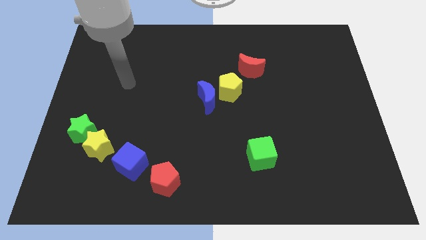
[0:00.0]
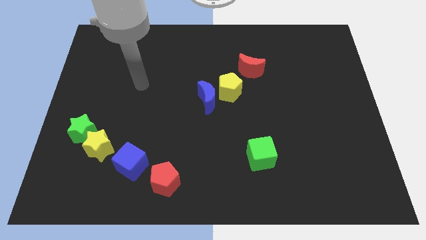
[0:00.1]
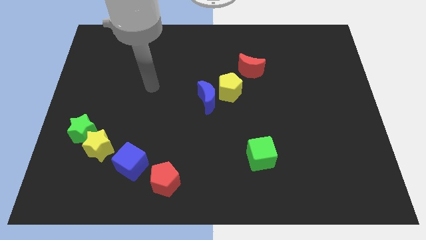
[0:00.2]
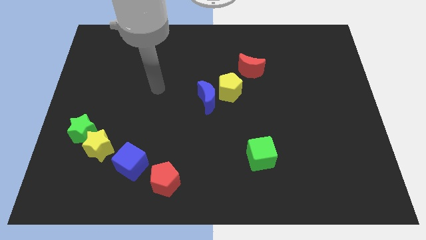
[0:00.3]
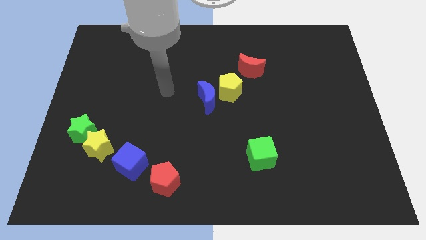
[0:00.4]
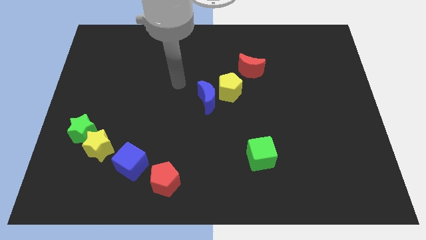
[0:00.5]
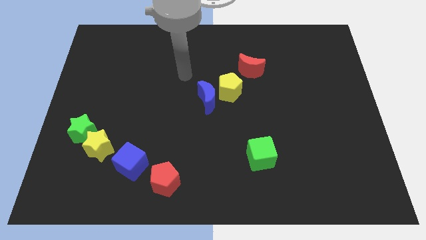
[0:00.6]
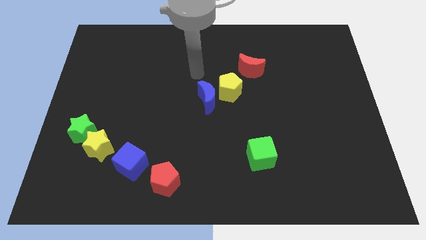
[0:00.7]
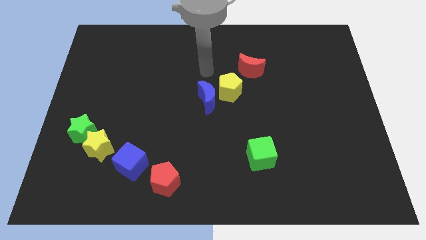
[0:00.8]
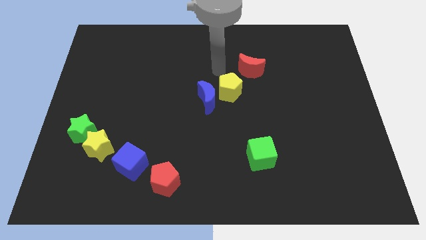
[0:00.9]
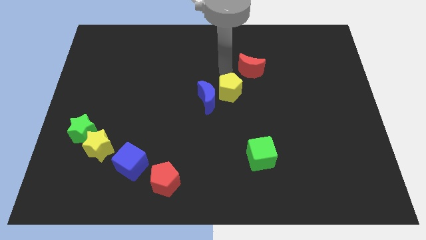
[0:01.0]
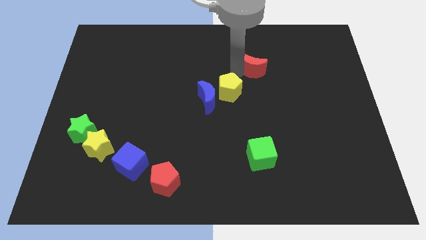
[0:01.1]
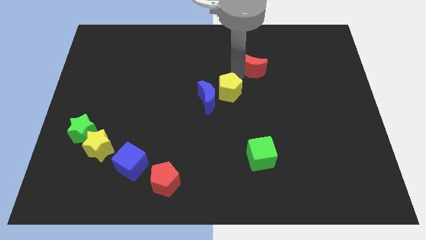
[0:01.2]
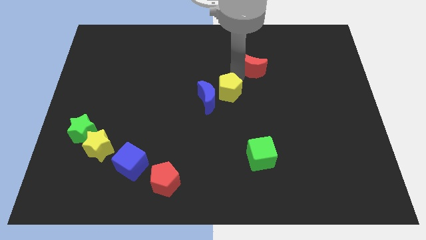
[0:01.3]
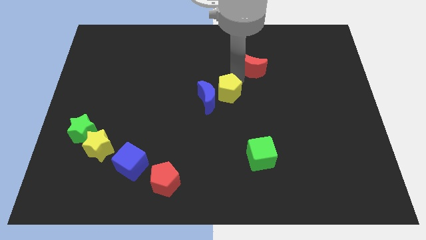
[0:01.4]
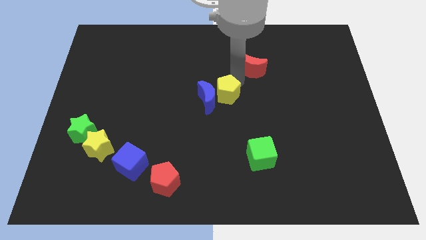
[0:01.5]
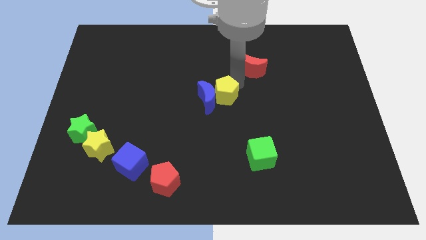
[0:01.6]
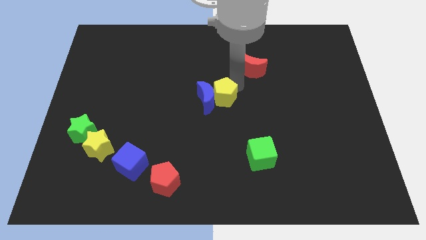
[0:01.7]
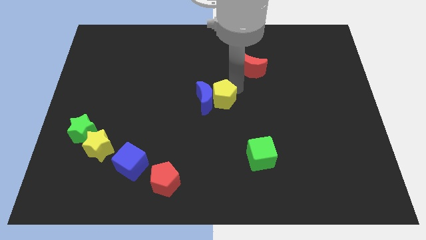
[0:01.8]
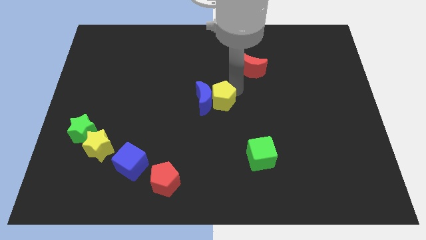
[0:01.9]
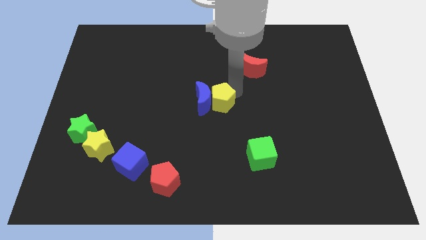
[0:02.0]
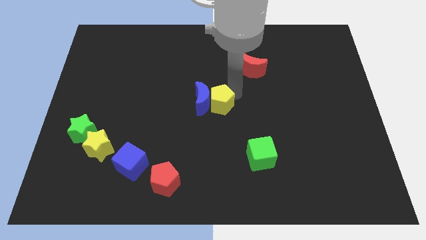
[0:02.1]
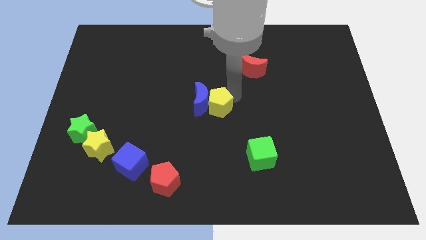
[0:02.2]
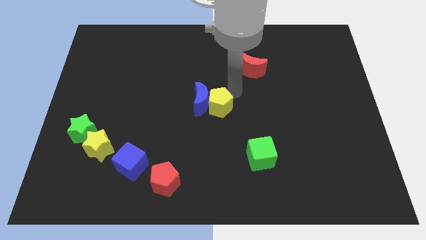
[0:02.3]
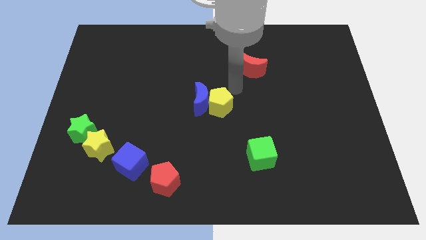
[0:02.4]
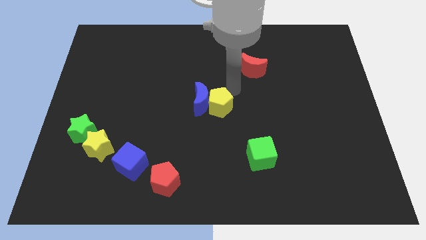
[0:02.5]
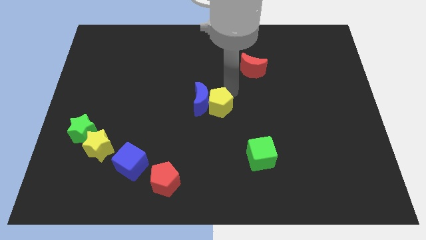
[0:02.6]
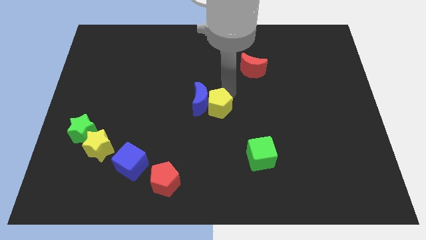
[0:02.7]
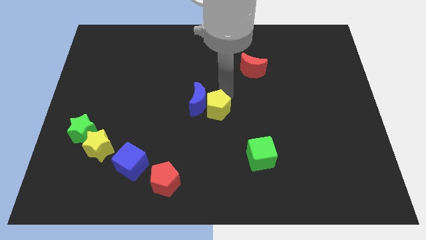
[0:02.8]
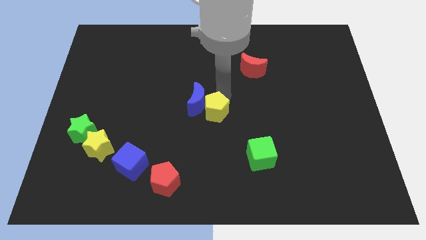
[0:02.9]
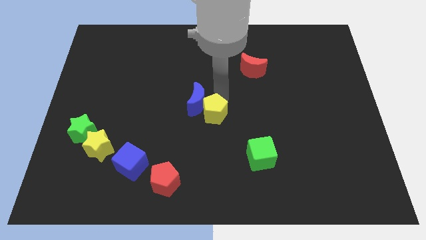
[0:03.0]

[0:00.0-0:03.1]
move the yellow pentagon downwards and left diagonally a little bit

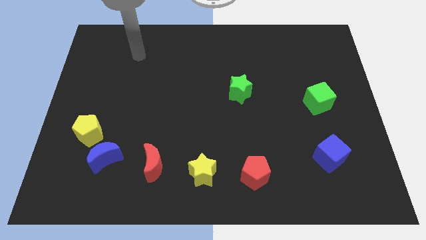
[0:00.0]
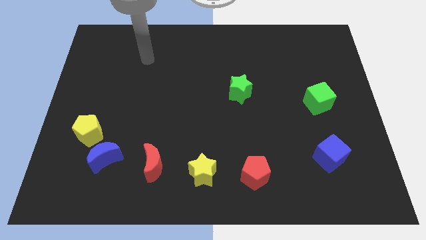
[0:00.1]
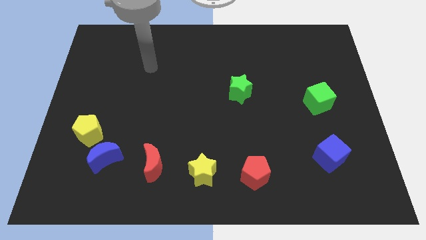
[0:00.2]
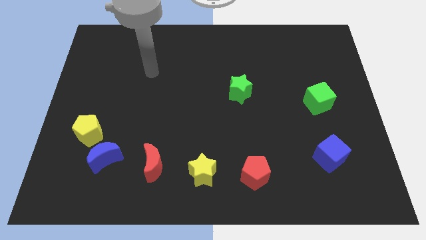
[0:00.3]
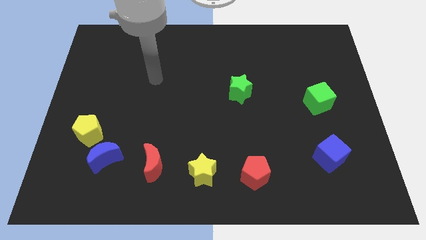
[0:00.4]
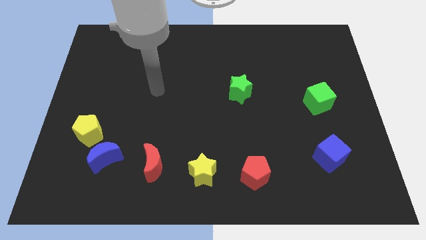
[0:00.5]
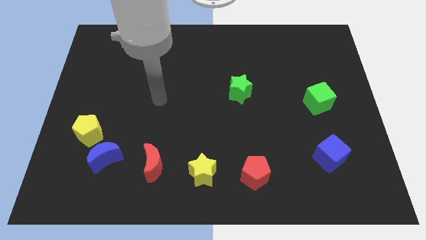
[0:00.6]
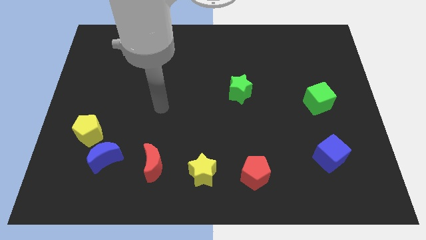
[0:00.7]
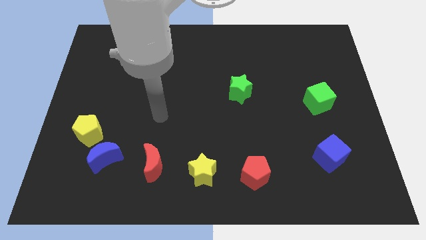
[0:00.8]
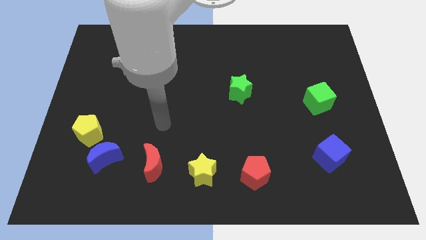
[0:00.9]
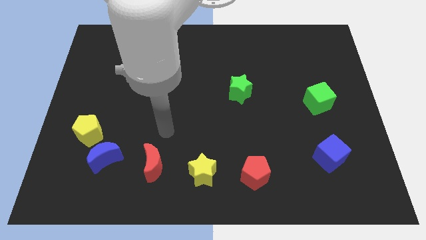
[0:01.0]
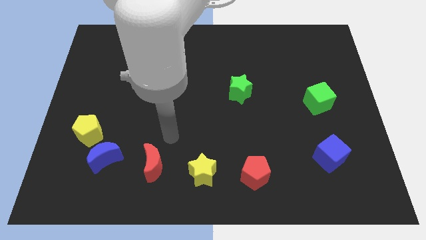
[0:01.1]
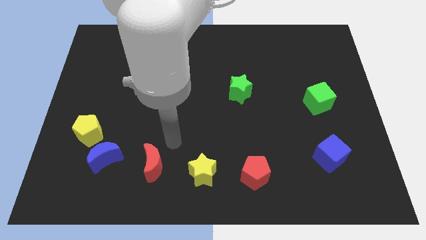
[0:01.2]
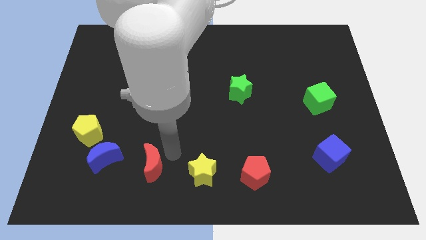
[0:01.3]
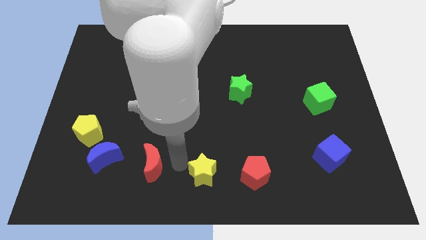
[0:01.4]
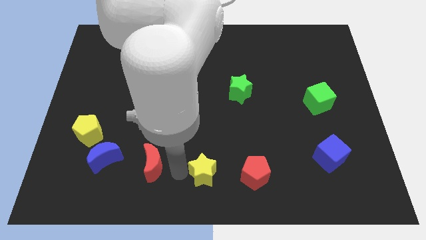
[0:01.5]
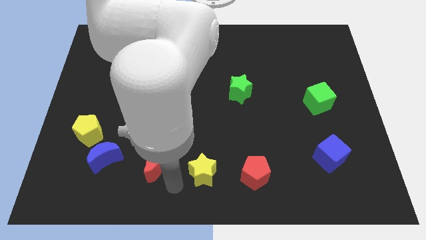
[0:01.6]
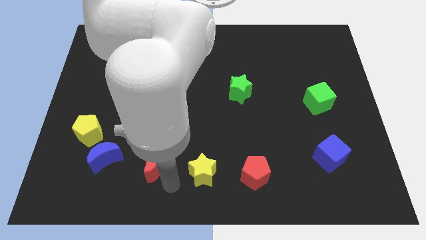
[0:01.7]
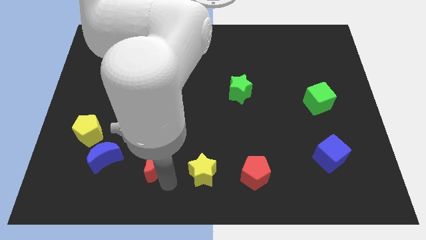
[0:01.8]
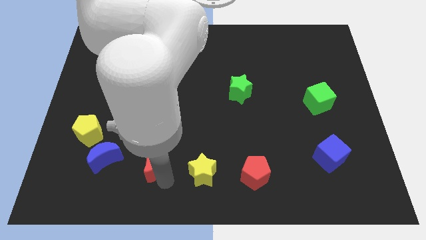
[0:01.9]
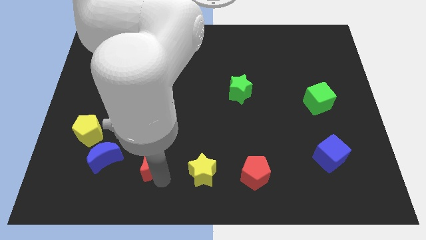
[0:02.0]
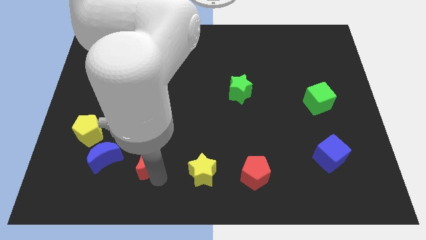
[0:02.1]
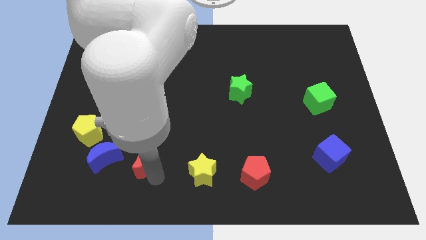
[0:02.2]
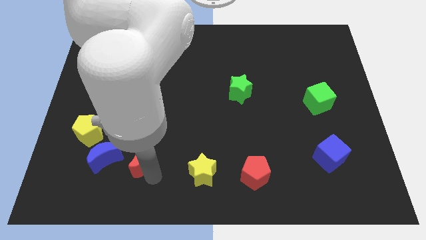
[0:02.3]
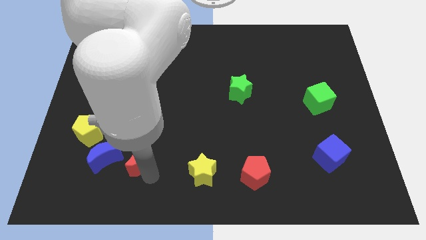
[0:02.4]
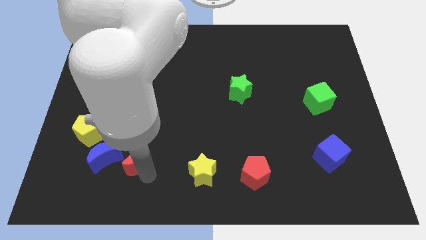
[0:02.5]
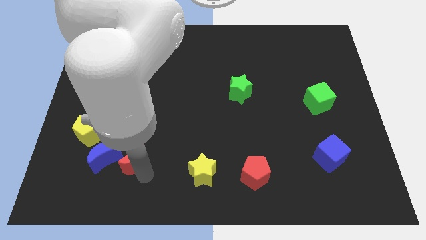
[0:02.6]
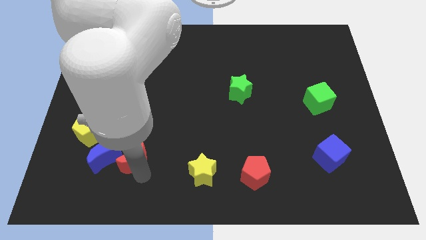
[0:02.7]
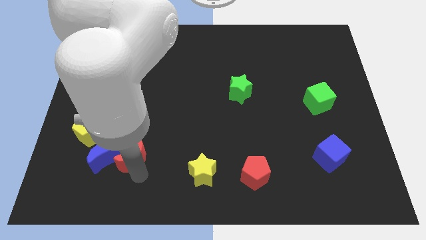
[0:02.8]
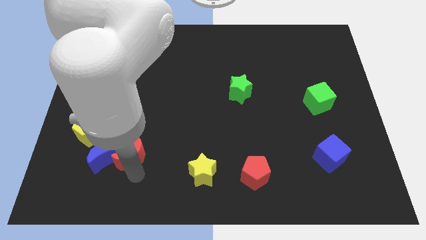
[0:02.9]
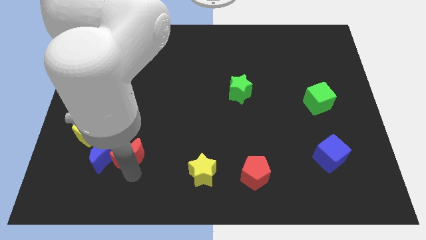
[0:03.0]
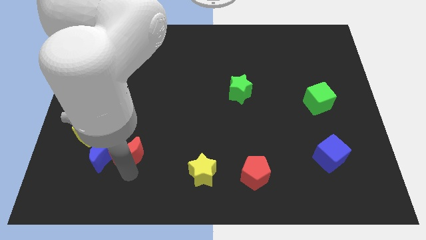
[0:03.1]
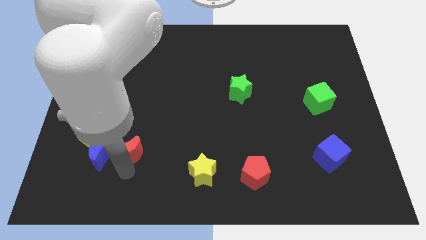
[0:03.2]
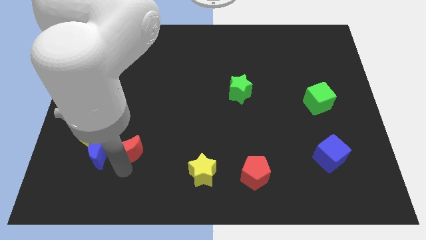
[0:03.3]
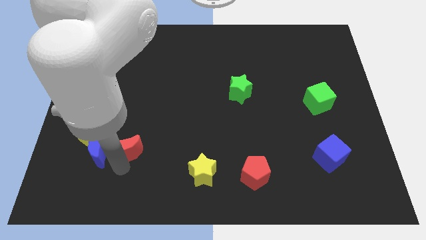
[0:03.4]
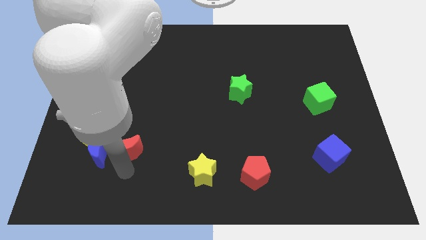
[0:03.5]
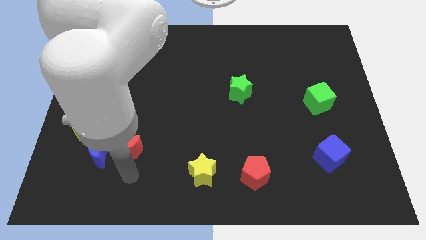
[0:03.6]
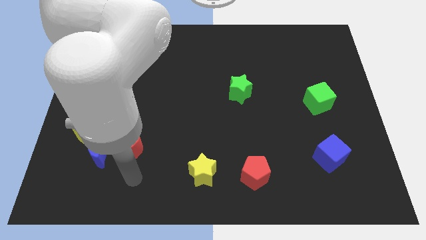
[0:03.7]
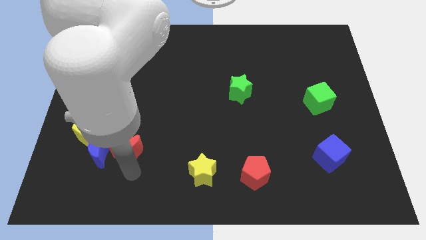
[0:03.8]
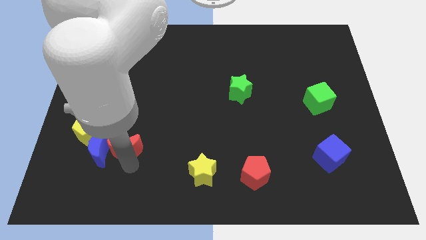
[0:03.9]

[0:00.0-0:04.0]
slightly move the red moon up and left diagonally

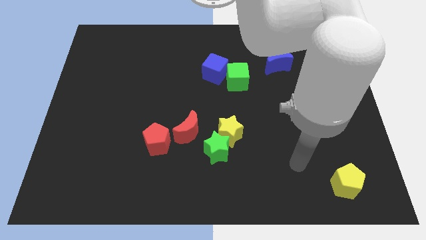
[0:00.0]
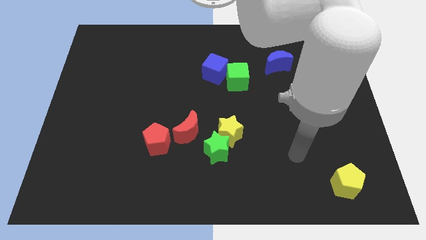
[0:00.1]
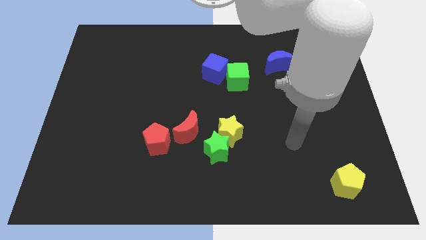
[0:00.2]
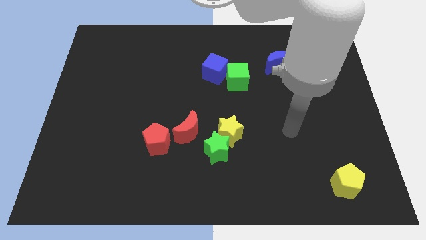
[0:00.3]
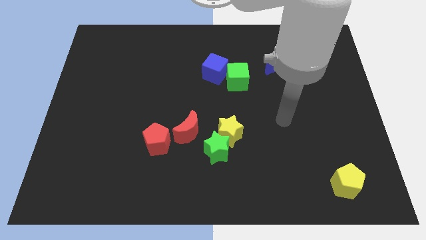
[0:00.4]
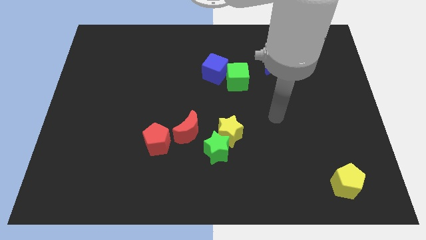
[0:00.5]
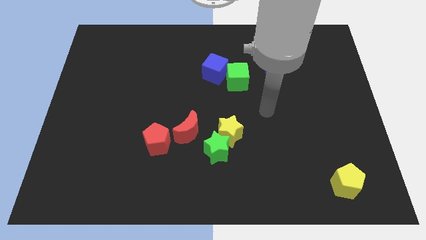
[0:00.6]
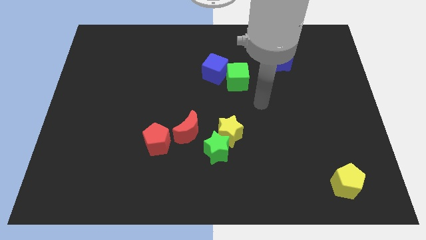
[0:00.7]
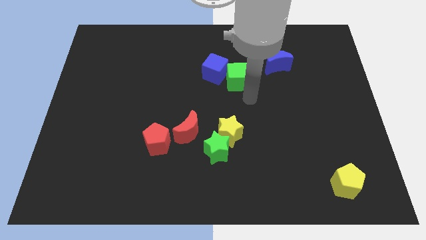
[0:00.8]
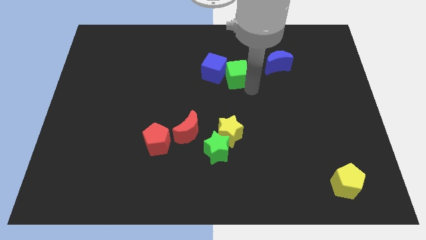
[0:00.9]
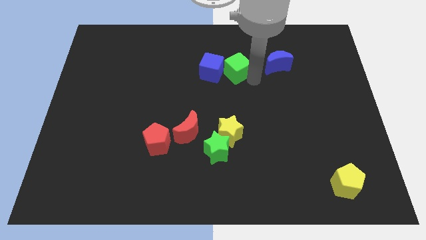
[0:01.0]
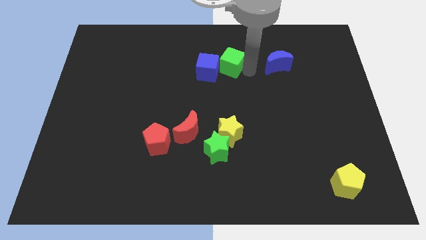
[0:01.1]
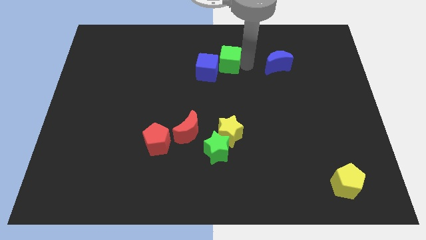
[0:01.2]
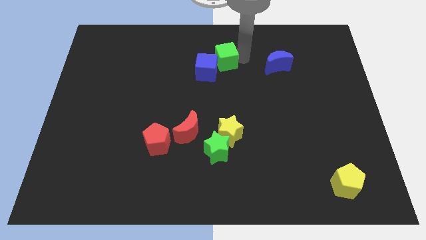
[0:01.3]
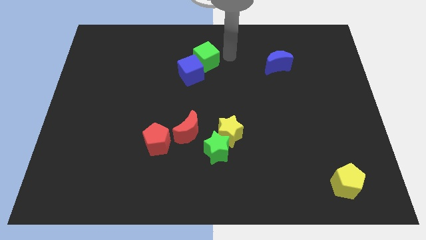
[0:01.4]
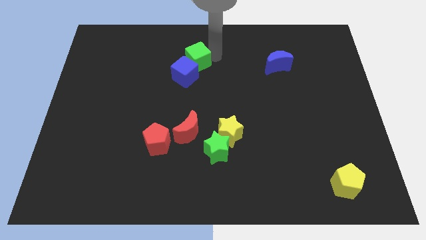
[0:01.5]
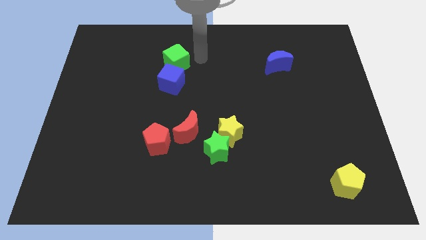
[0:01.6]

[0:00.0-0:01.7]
move the blue cube diagonally down and to the left somewhat
